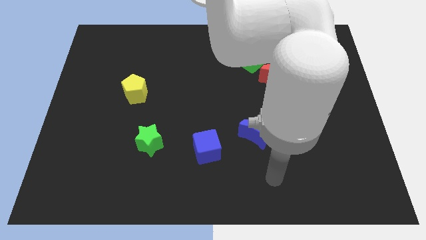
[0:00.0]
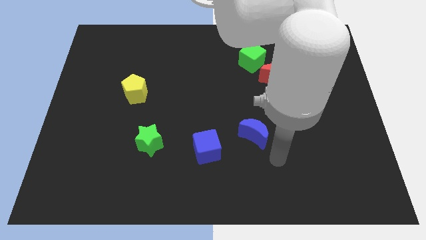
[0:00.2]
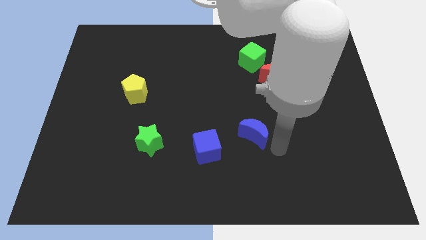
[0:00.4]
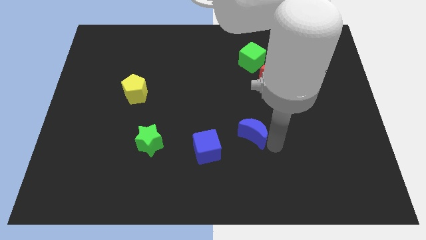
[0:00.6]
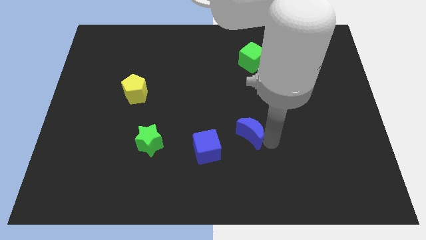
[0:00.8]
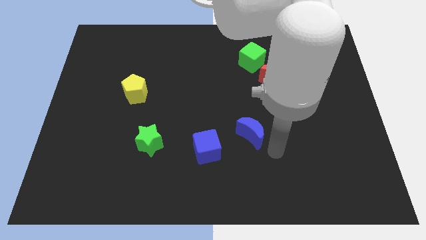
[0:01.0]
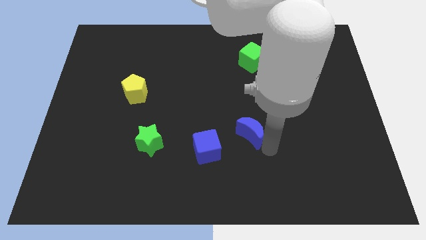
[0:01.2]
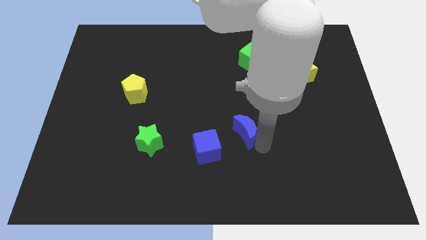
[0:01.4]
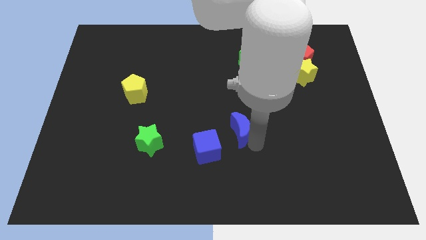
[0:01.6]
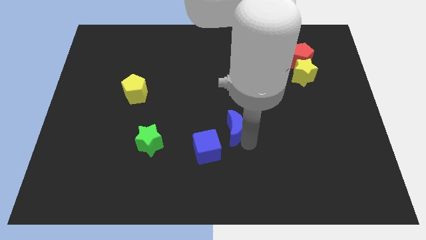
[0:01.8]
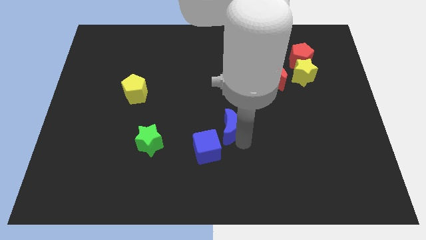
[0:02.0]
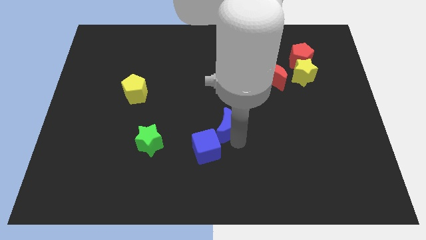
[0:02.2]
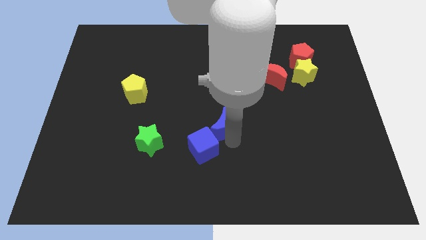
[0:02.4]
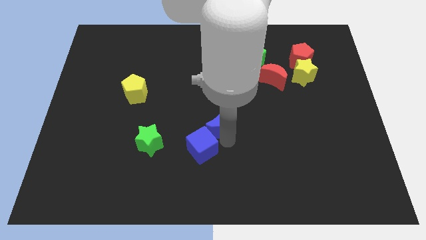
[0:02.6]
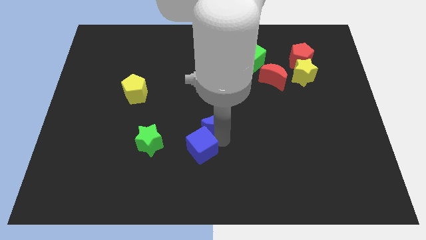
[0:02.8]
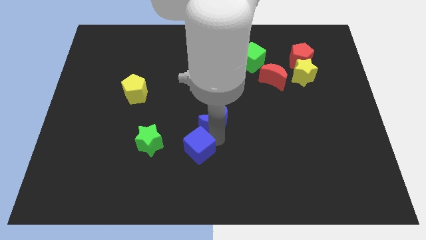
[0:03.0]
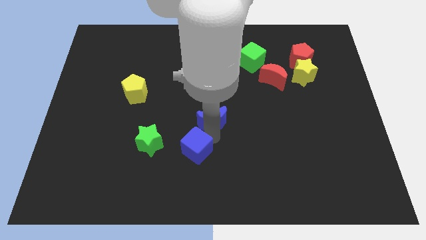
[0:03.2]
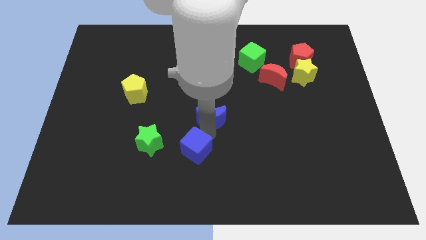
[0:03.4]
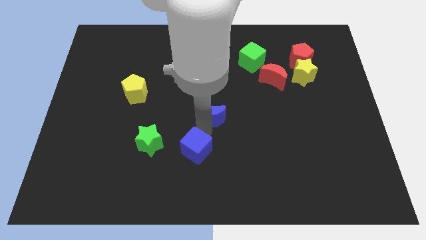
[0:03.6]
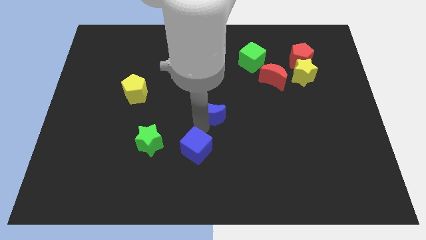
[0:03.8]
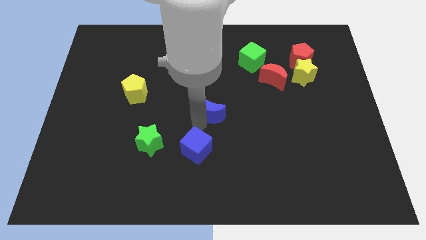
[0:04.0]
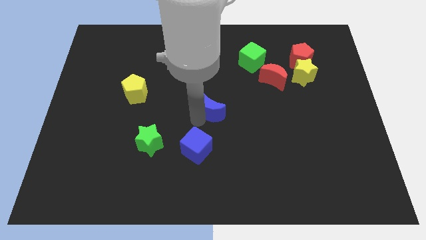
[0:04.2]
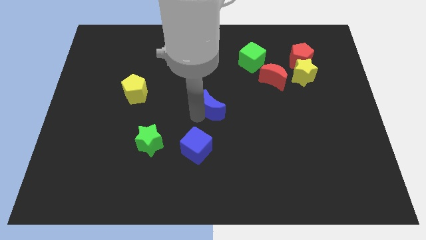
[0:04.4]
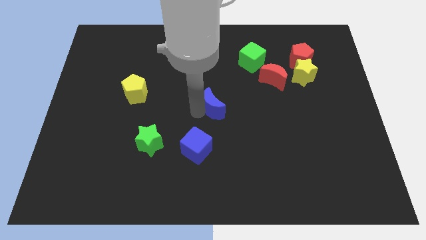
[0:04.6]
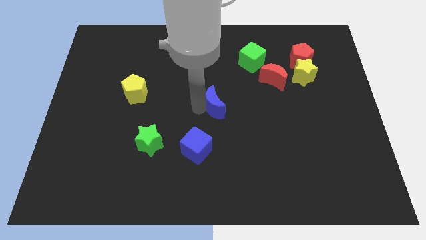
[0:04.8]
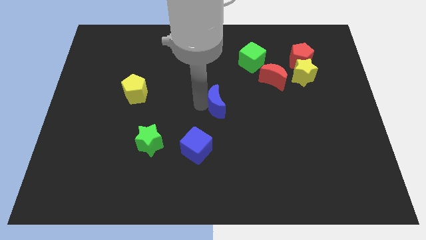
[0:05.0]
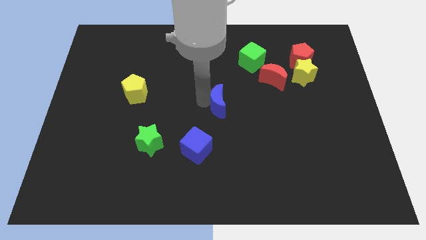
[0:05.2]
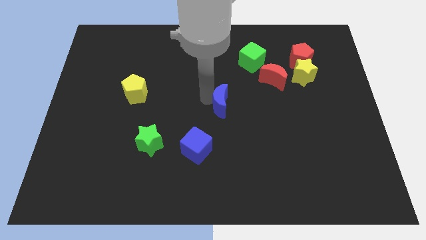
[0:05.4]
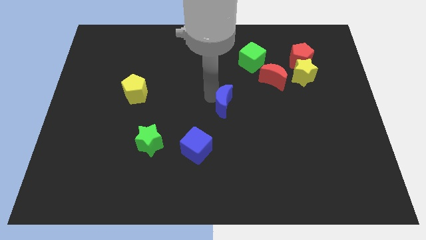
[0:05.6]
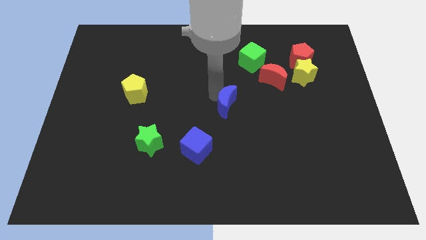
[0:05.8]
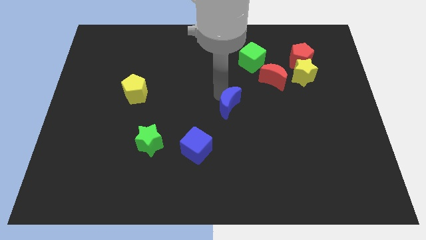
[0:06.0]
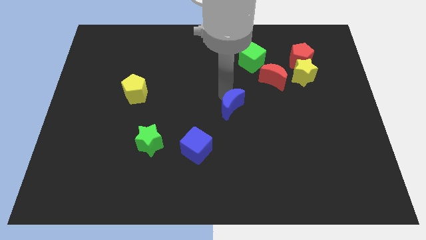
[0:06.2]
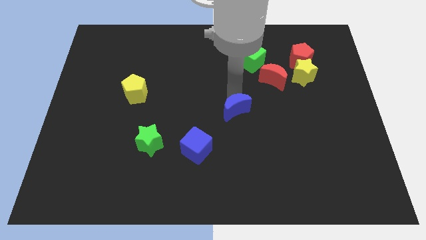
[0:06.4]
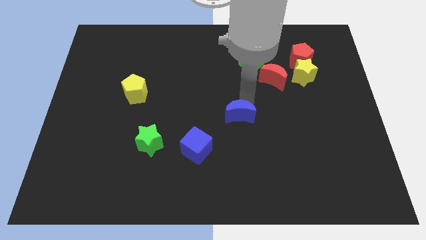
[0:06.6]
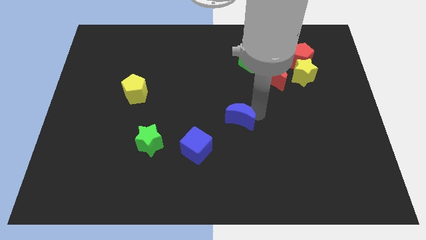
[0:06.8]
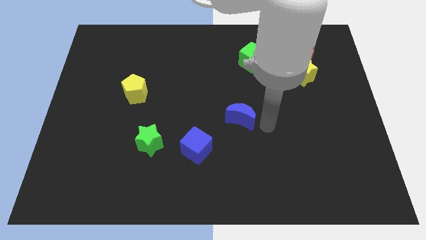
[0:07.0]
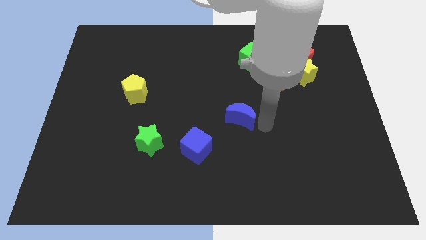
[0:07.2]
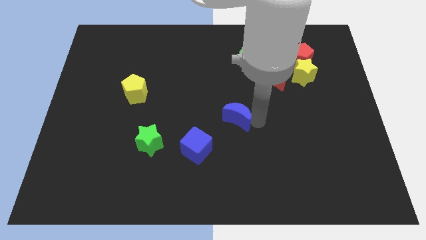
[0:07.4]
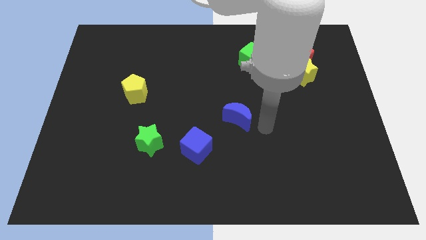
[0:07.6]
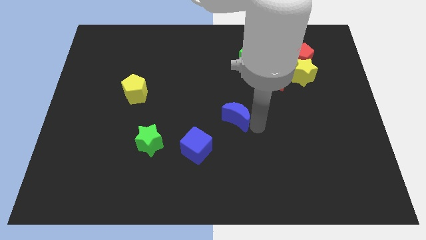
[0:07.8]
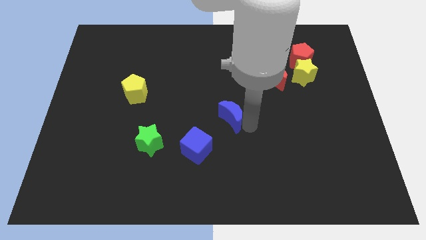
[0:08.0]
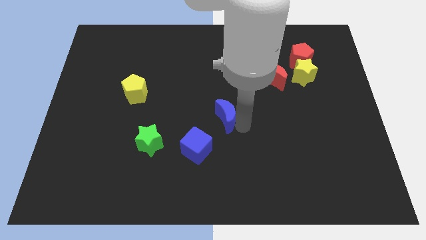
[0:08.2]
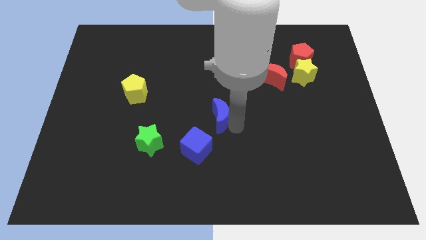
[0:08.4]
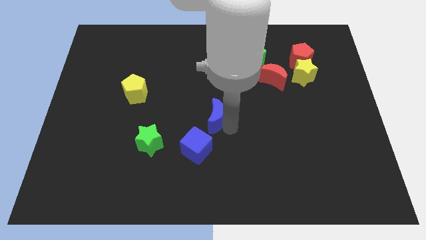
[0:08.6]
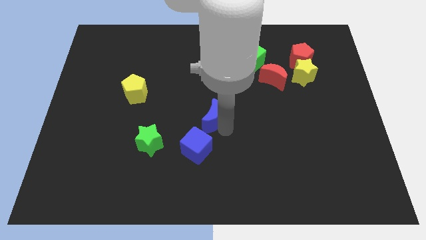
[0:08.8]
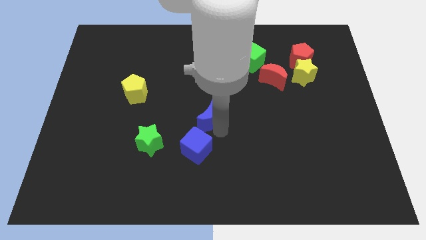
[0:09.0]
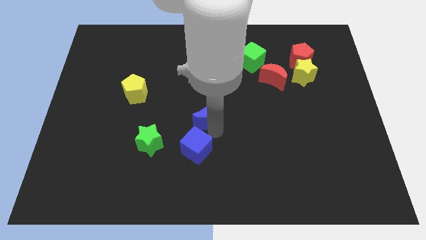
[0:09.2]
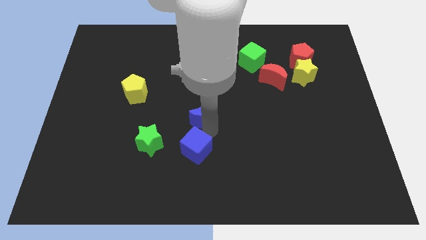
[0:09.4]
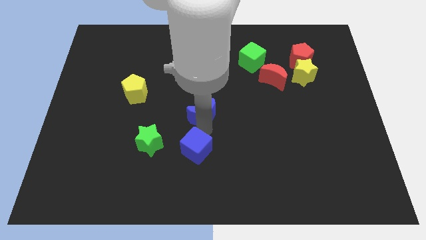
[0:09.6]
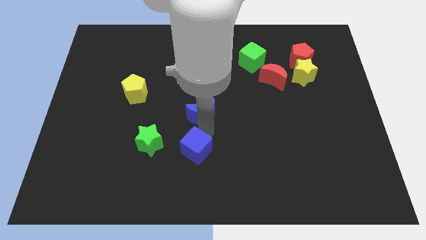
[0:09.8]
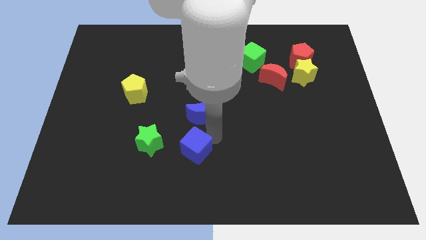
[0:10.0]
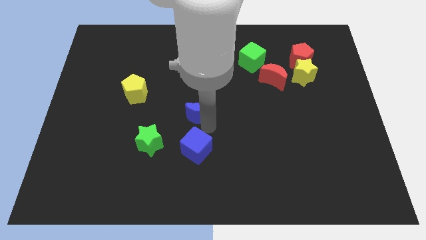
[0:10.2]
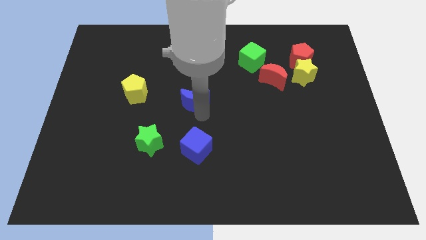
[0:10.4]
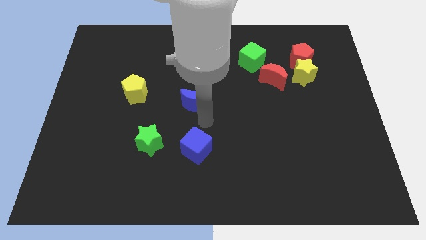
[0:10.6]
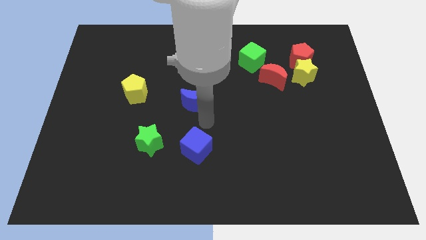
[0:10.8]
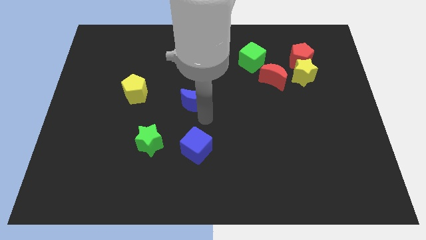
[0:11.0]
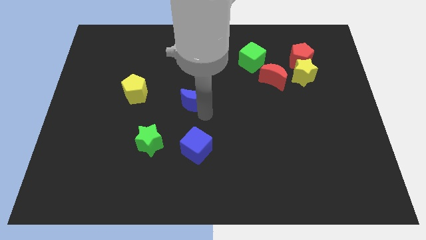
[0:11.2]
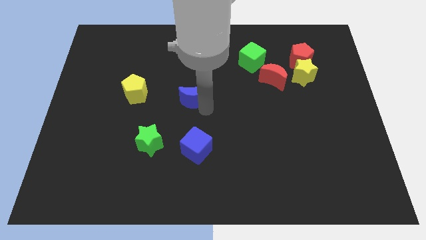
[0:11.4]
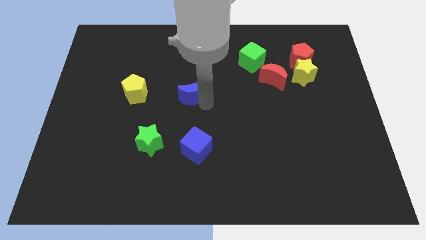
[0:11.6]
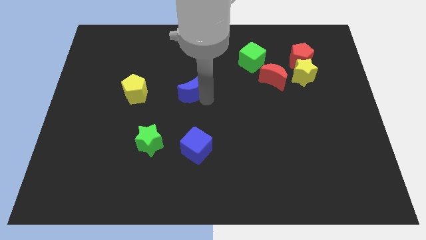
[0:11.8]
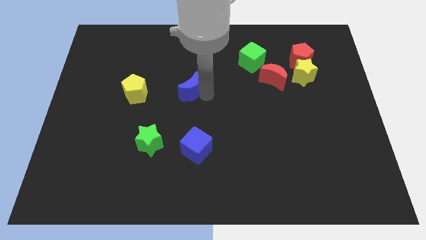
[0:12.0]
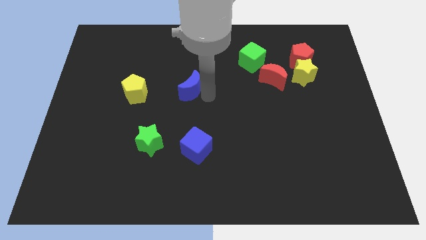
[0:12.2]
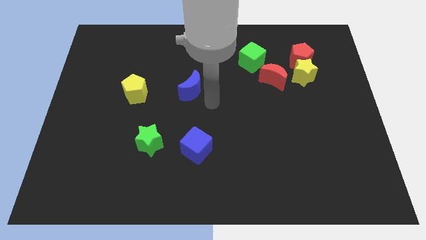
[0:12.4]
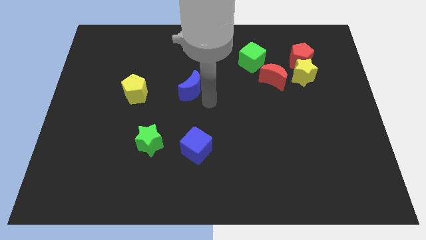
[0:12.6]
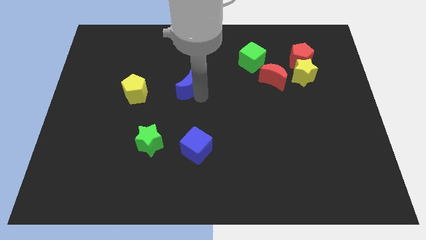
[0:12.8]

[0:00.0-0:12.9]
slide the blue moon diagonally upwards and left

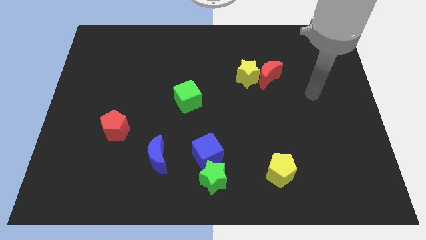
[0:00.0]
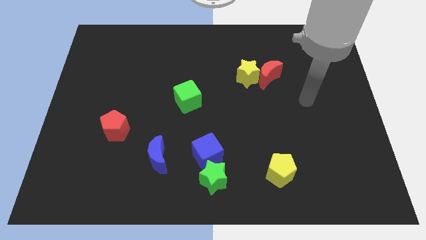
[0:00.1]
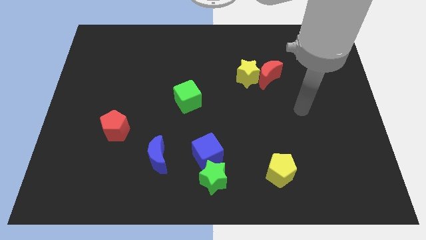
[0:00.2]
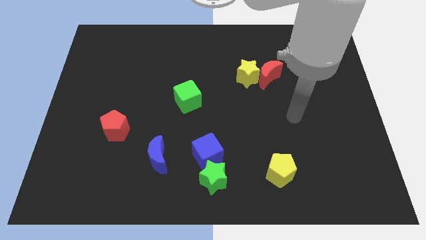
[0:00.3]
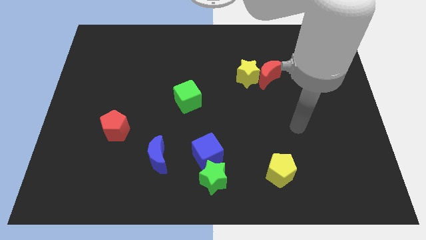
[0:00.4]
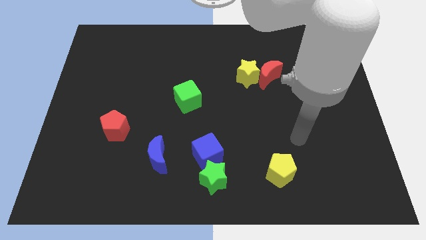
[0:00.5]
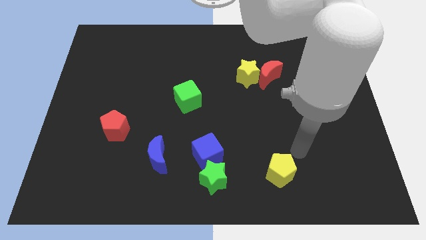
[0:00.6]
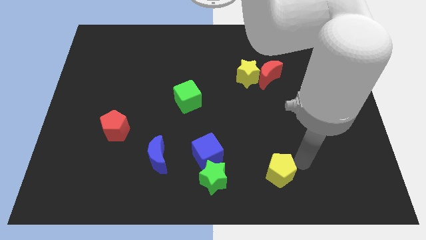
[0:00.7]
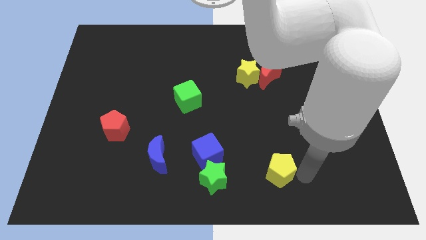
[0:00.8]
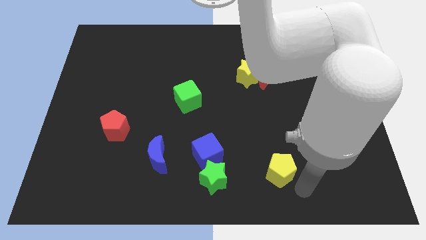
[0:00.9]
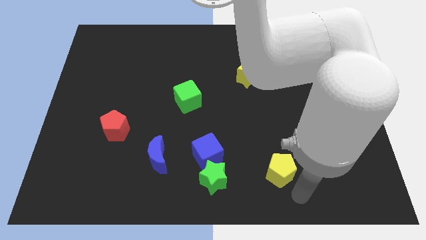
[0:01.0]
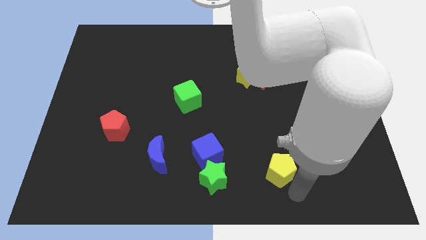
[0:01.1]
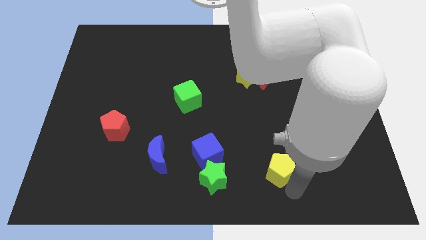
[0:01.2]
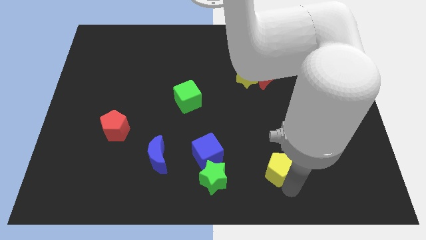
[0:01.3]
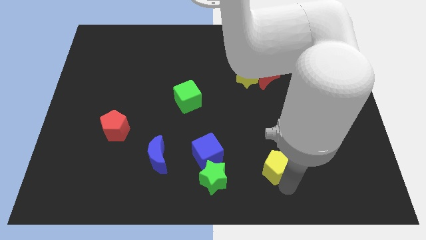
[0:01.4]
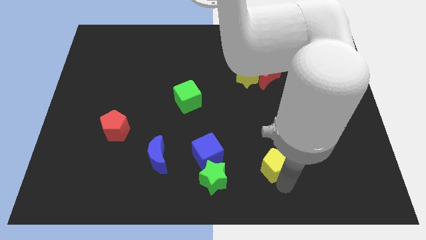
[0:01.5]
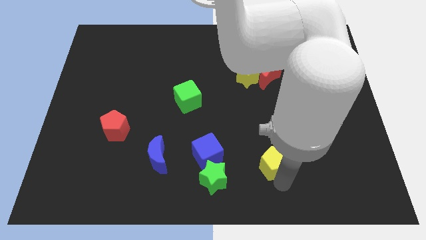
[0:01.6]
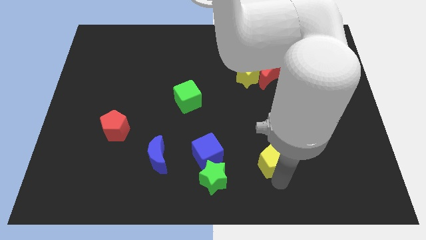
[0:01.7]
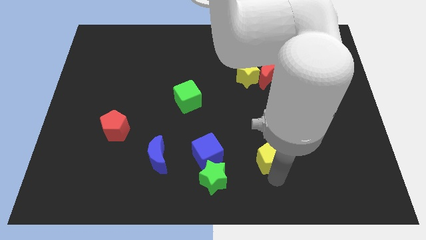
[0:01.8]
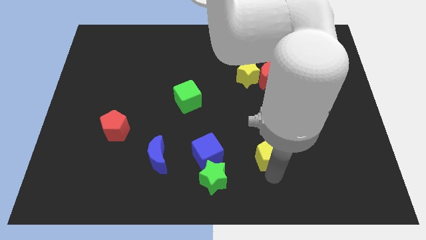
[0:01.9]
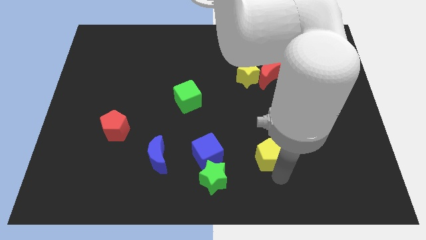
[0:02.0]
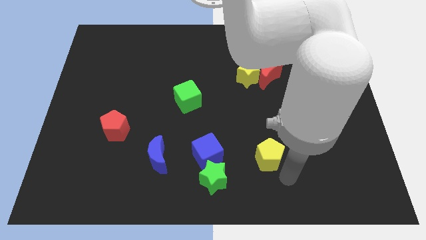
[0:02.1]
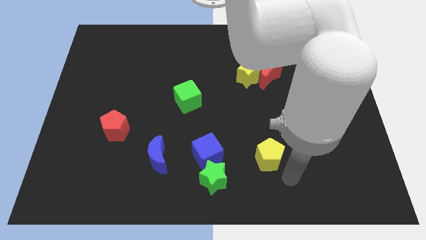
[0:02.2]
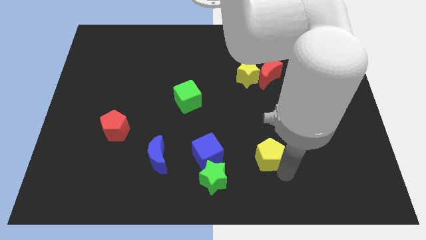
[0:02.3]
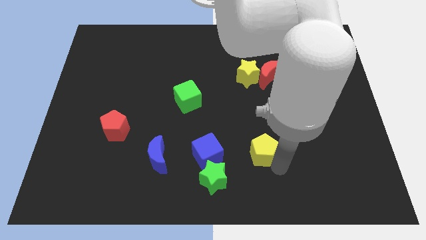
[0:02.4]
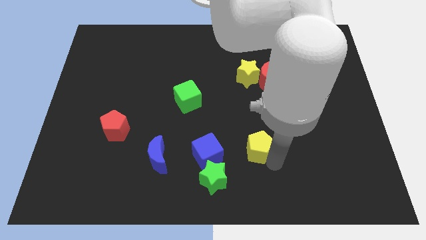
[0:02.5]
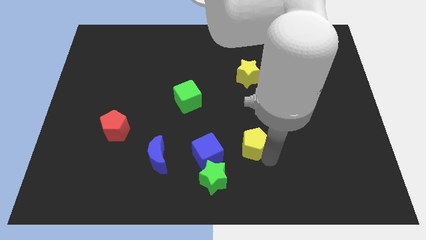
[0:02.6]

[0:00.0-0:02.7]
slide the yellow pentagon slightly up and left diagonally
